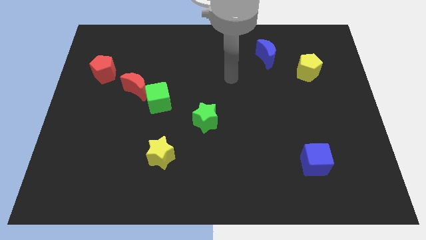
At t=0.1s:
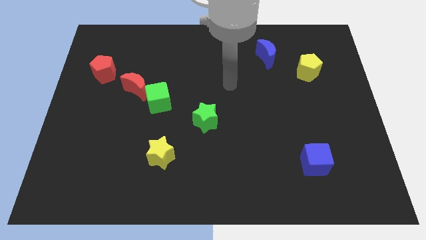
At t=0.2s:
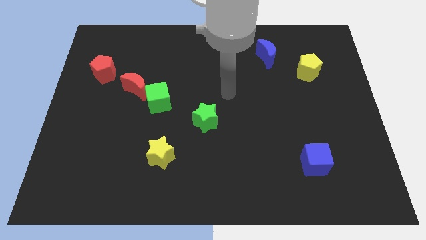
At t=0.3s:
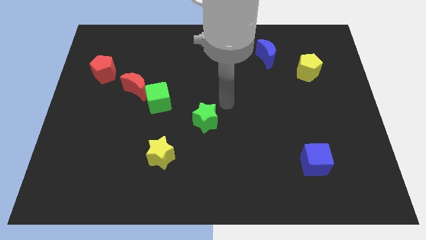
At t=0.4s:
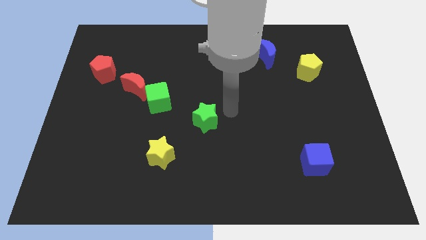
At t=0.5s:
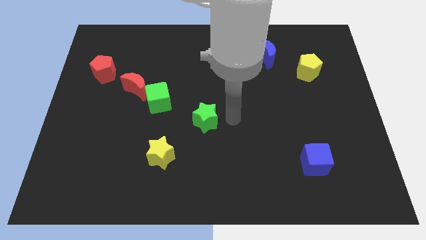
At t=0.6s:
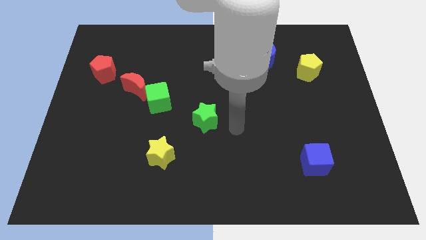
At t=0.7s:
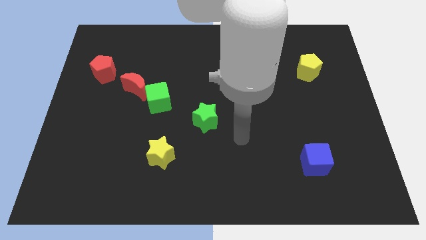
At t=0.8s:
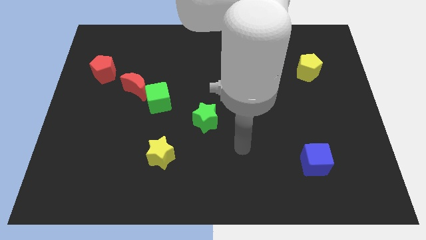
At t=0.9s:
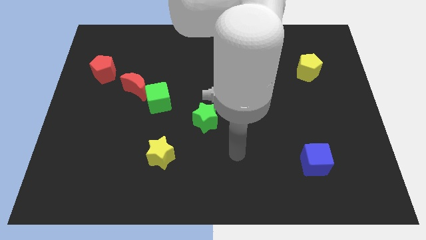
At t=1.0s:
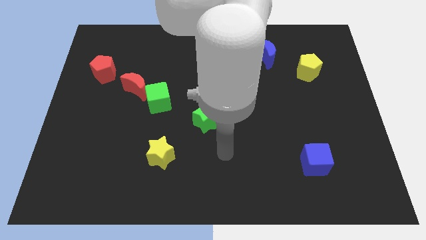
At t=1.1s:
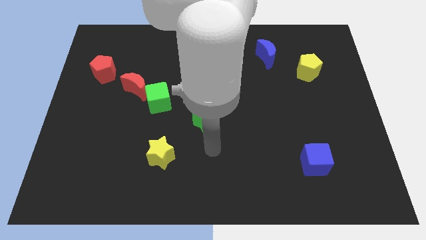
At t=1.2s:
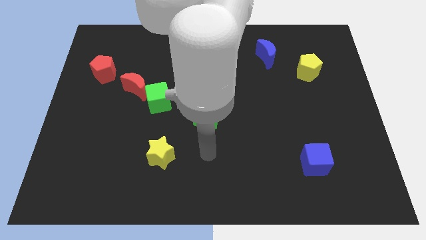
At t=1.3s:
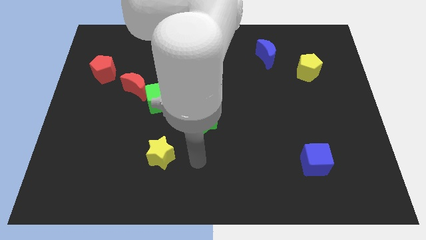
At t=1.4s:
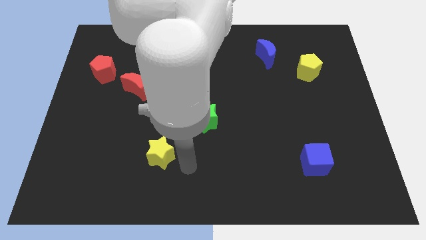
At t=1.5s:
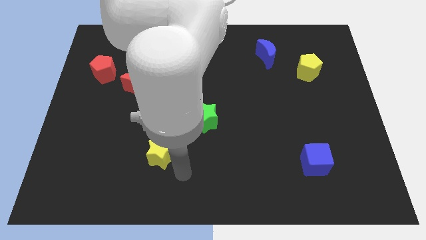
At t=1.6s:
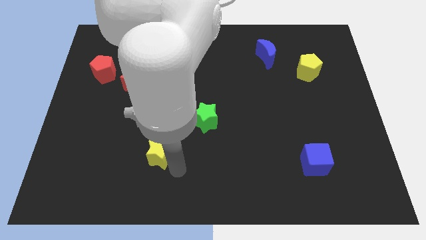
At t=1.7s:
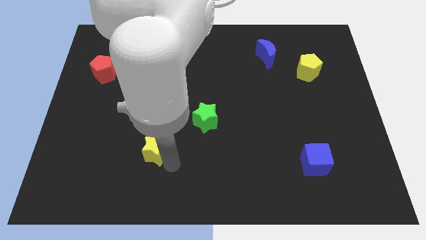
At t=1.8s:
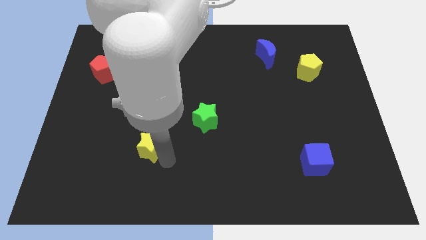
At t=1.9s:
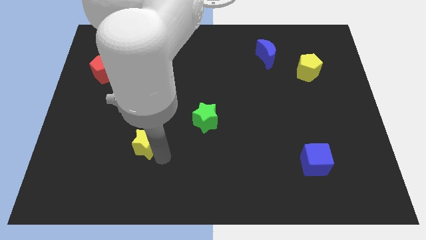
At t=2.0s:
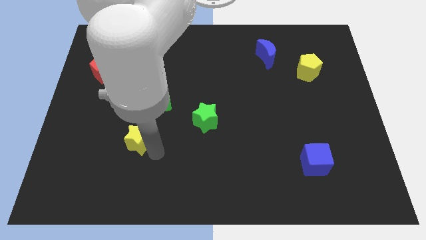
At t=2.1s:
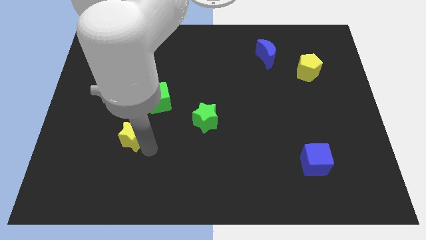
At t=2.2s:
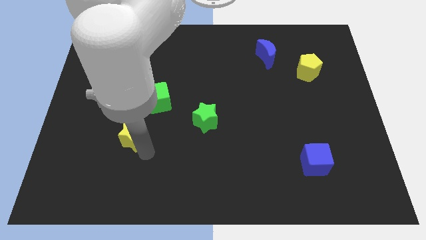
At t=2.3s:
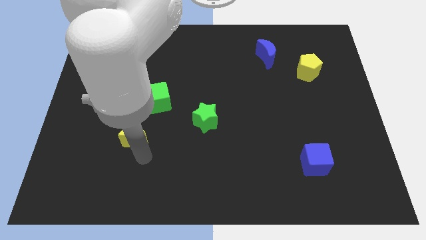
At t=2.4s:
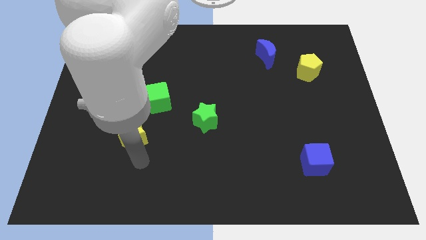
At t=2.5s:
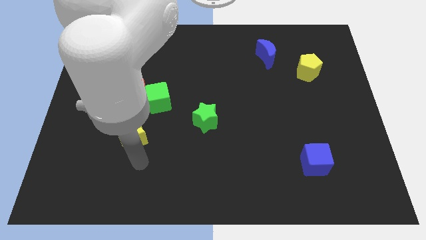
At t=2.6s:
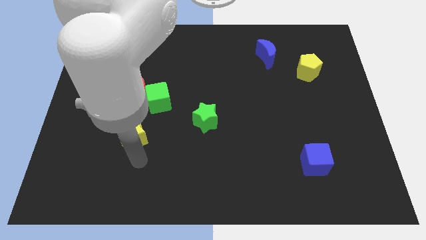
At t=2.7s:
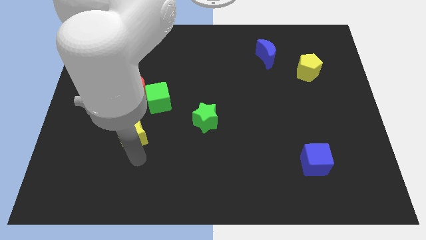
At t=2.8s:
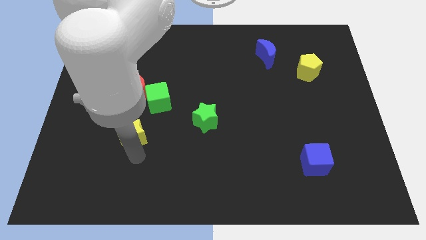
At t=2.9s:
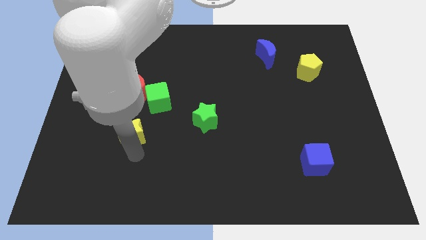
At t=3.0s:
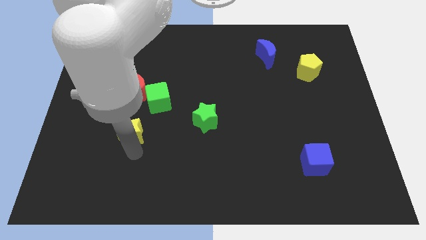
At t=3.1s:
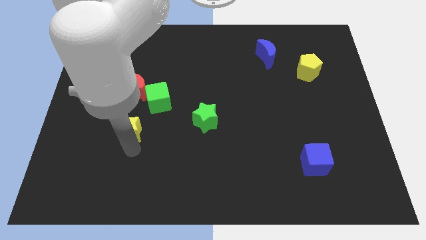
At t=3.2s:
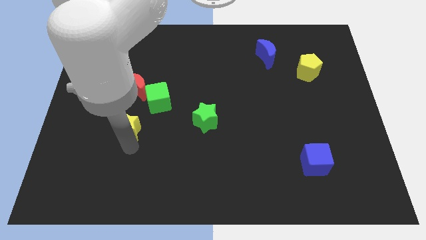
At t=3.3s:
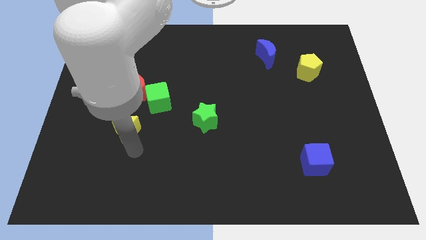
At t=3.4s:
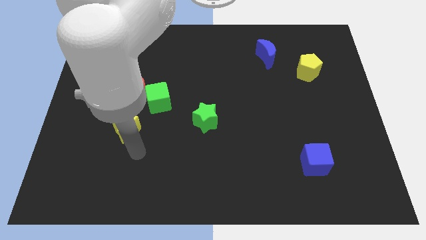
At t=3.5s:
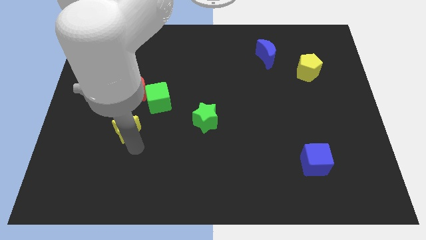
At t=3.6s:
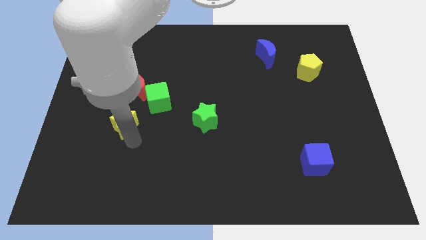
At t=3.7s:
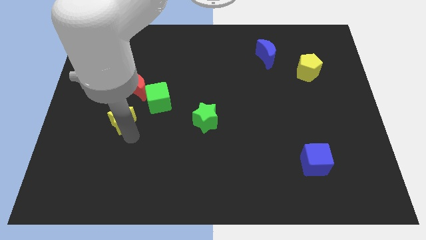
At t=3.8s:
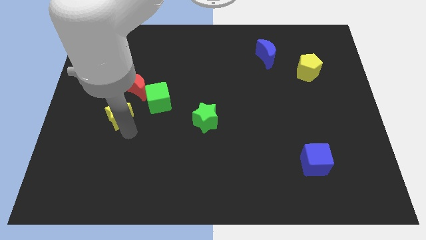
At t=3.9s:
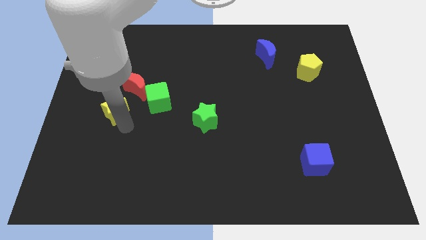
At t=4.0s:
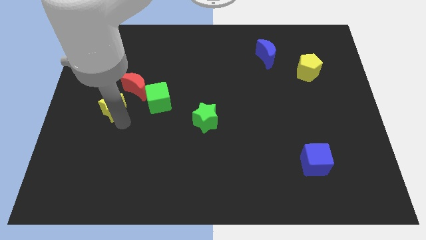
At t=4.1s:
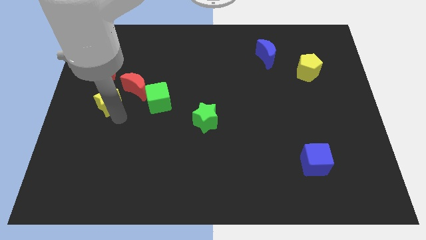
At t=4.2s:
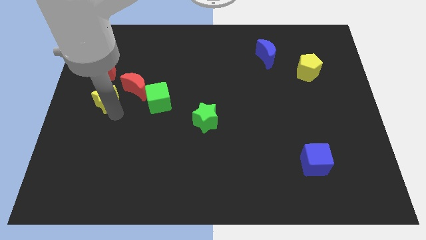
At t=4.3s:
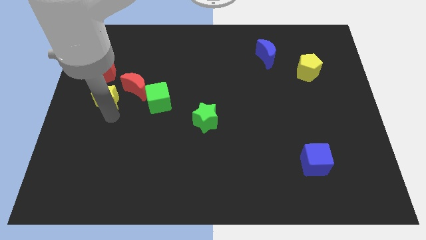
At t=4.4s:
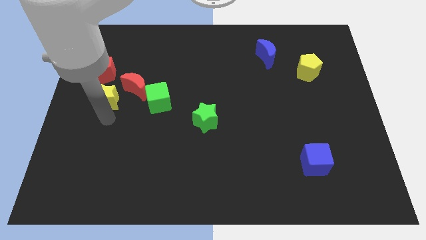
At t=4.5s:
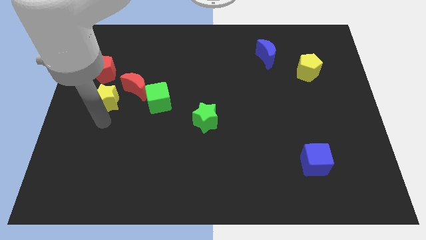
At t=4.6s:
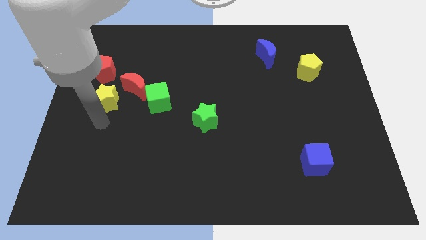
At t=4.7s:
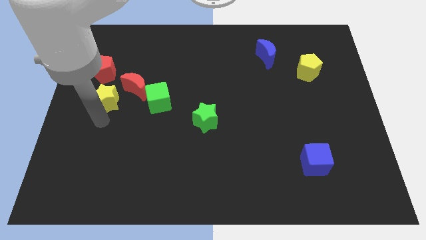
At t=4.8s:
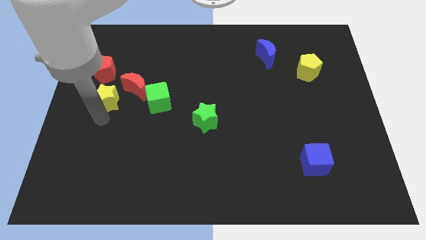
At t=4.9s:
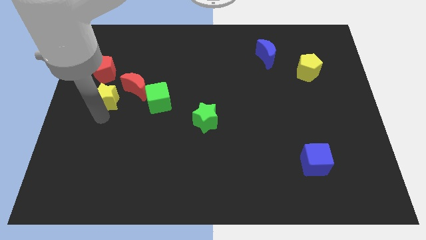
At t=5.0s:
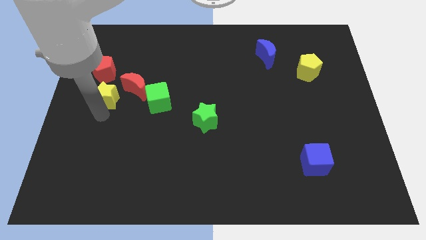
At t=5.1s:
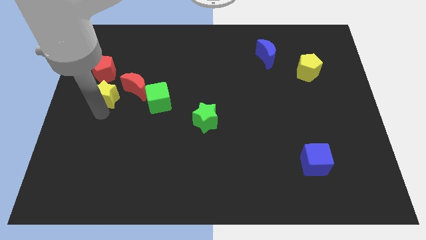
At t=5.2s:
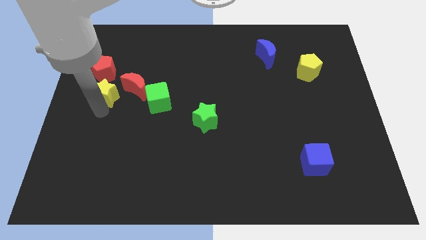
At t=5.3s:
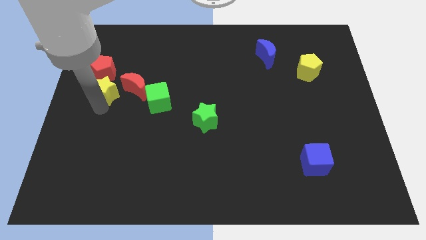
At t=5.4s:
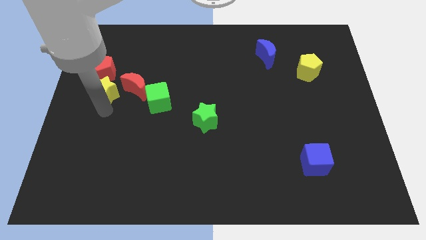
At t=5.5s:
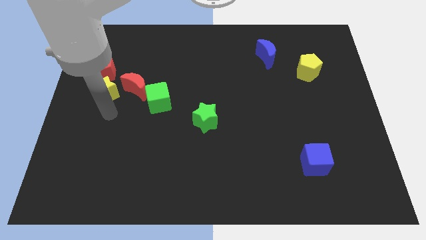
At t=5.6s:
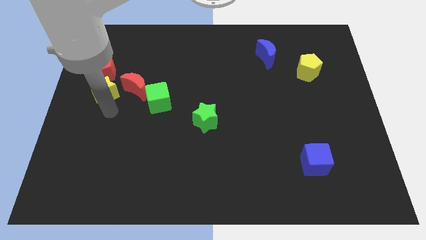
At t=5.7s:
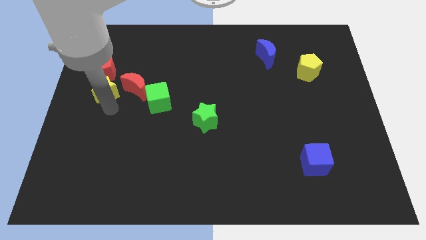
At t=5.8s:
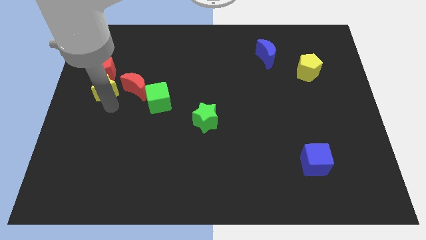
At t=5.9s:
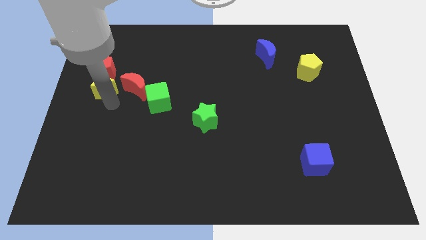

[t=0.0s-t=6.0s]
move the yellow star towards the red pentagon

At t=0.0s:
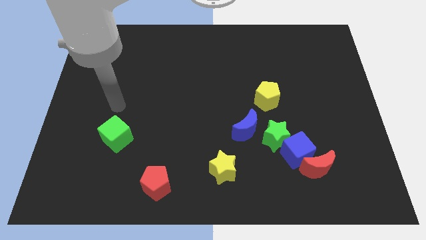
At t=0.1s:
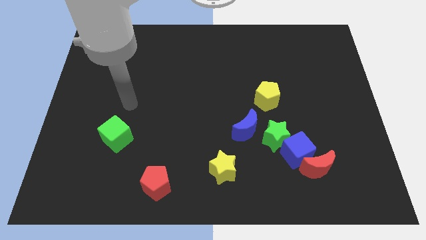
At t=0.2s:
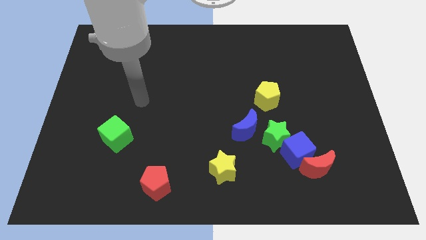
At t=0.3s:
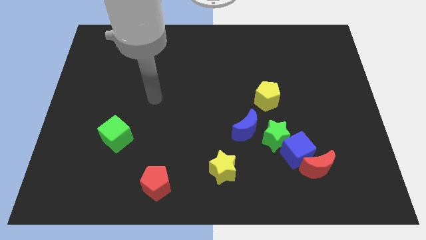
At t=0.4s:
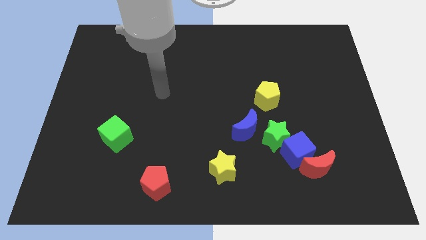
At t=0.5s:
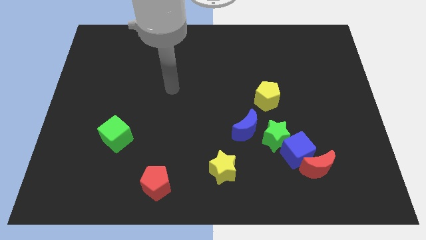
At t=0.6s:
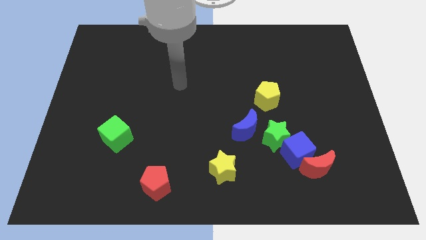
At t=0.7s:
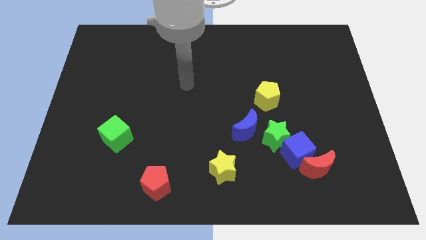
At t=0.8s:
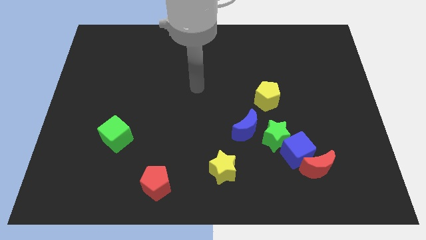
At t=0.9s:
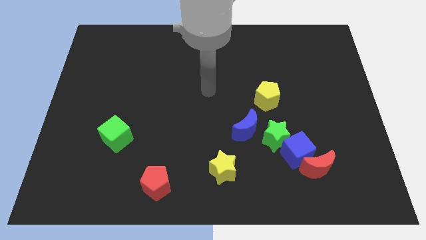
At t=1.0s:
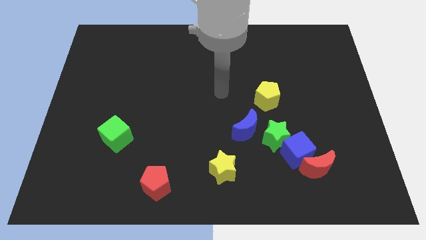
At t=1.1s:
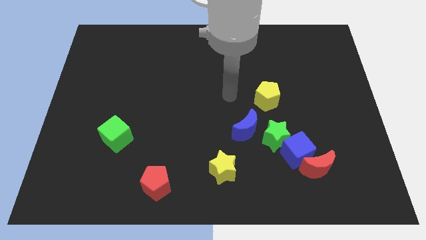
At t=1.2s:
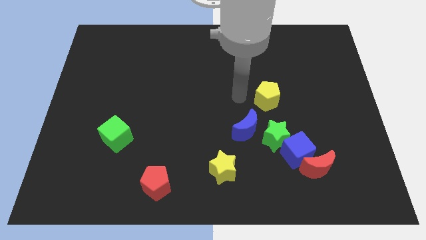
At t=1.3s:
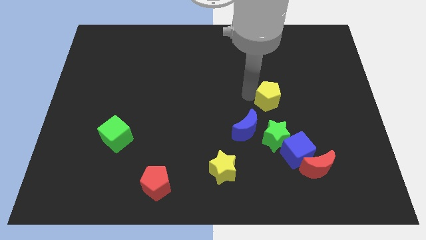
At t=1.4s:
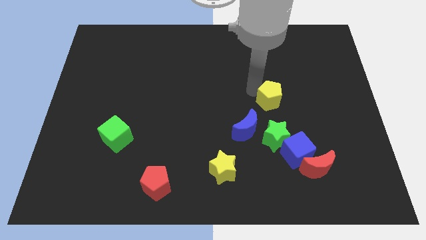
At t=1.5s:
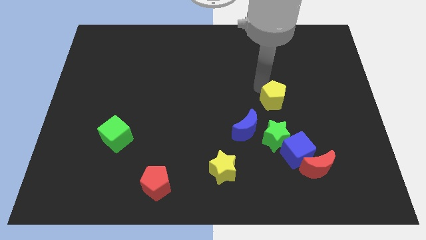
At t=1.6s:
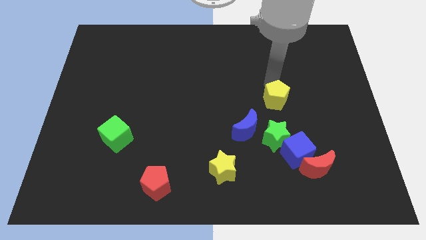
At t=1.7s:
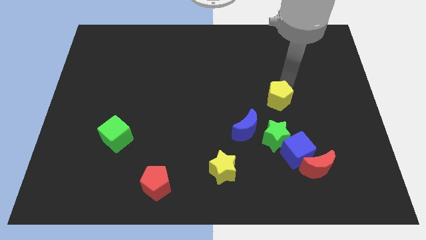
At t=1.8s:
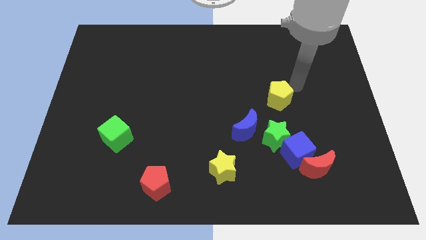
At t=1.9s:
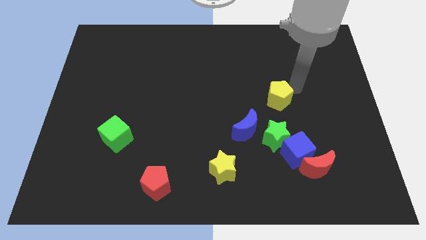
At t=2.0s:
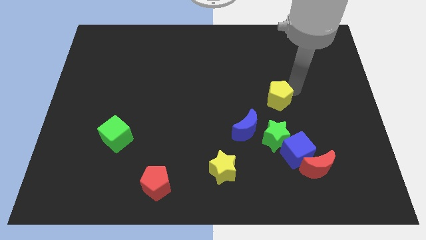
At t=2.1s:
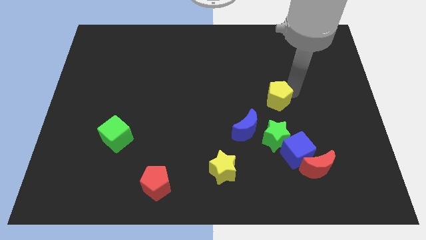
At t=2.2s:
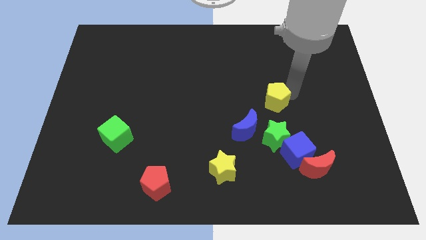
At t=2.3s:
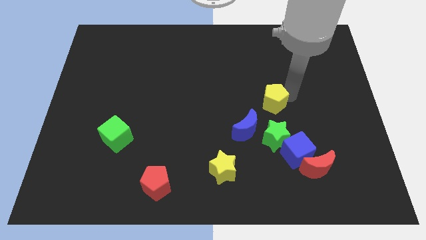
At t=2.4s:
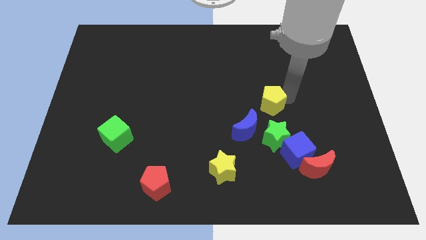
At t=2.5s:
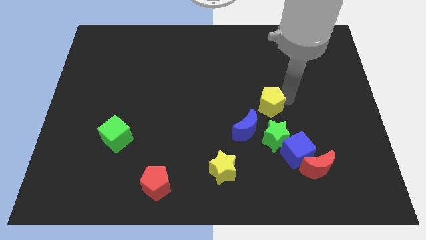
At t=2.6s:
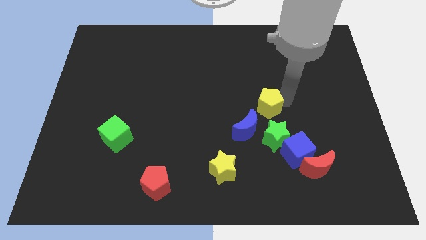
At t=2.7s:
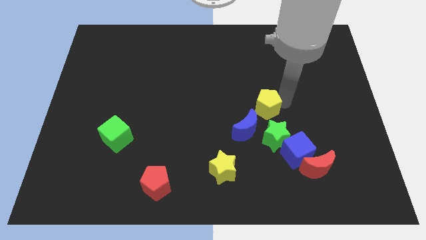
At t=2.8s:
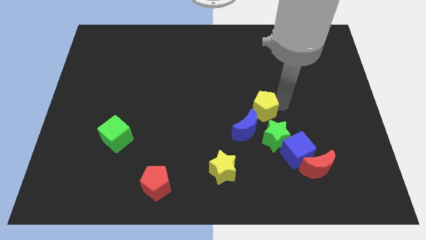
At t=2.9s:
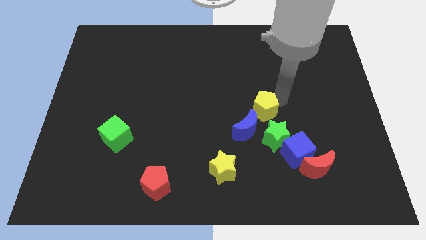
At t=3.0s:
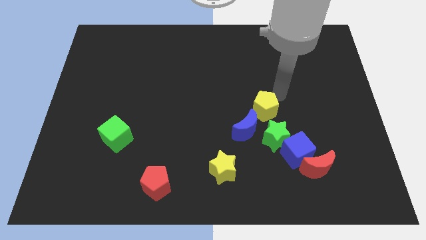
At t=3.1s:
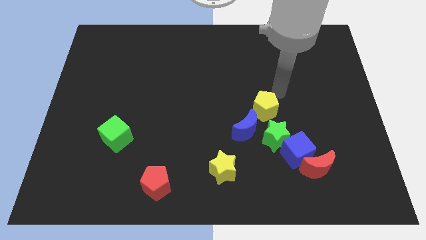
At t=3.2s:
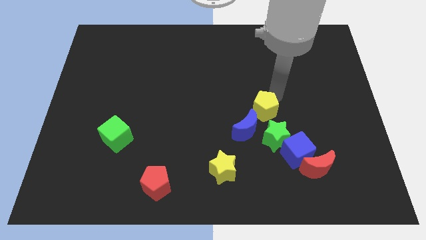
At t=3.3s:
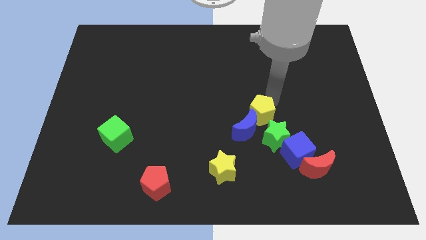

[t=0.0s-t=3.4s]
move the yellow pentagon close to the blue moon
